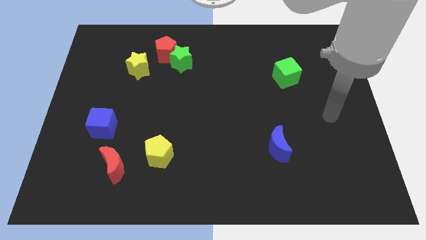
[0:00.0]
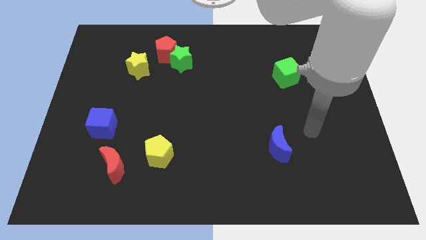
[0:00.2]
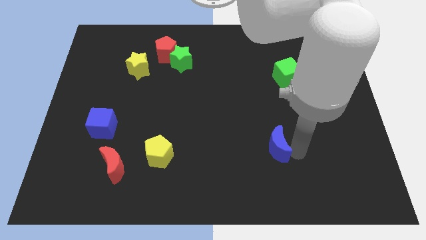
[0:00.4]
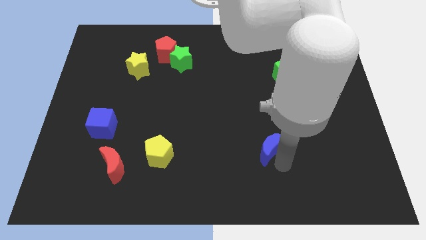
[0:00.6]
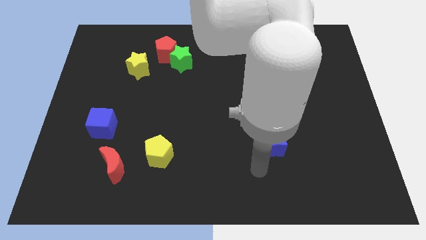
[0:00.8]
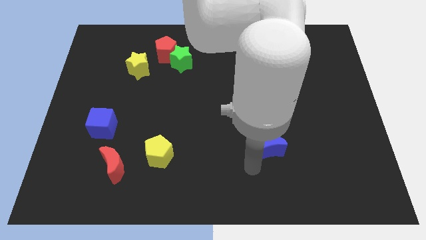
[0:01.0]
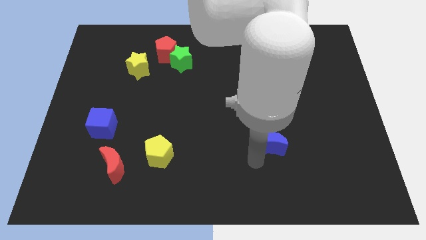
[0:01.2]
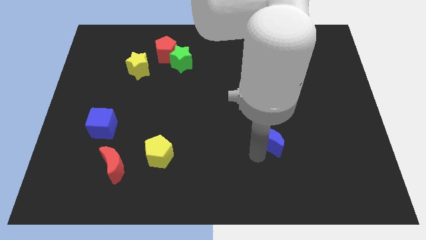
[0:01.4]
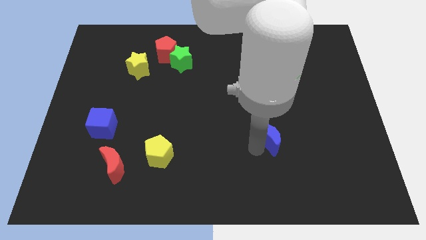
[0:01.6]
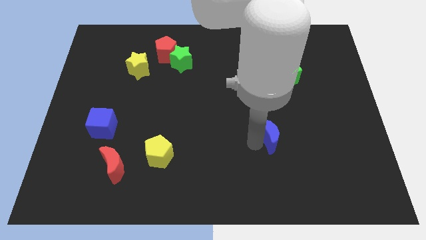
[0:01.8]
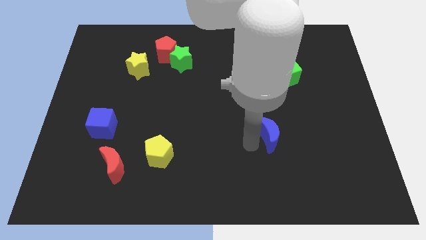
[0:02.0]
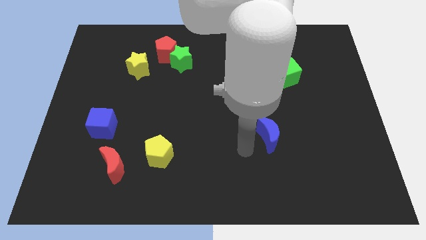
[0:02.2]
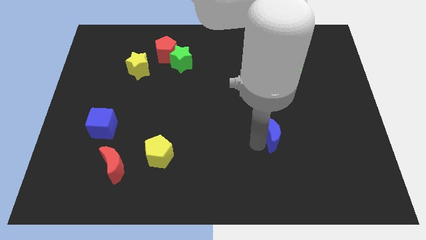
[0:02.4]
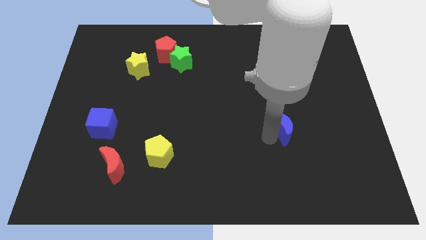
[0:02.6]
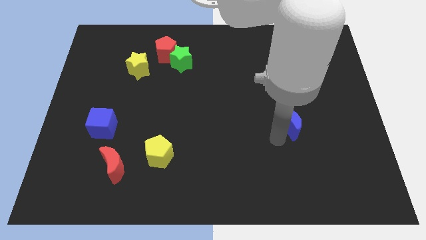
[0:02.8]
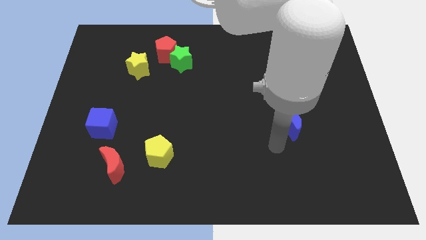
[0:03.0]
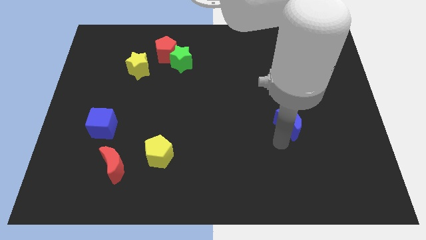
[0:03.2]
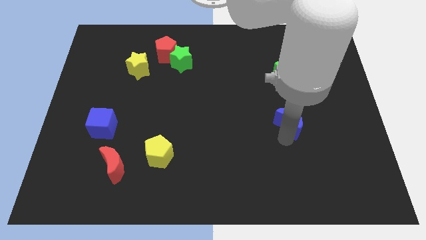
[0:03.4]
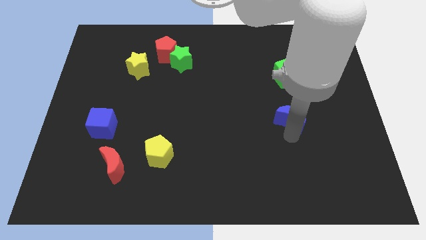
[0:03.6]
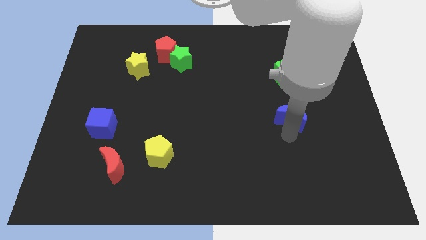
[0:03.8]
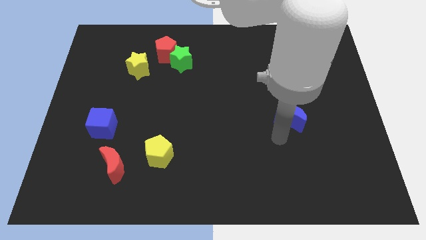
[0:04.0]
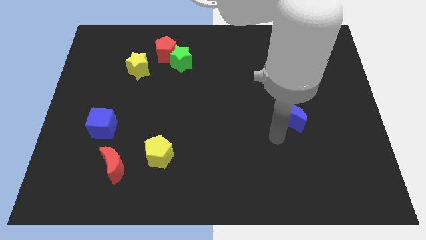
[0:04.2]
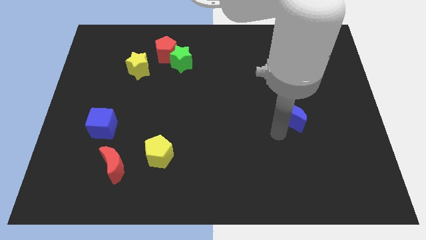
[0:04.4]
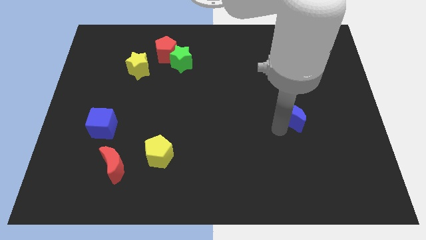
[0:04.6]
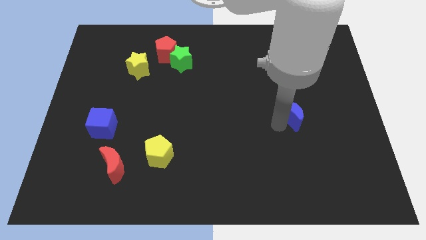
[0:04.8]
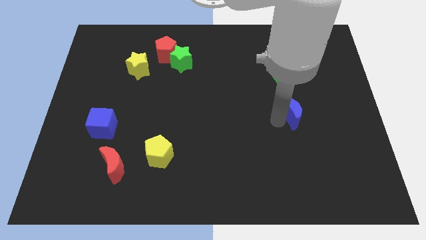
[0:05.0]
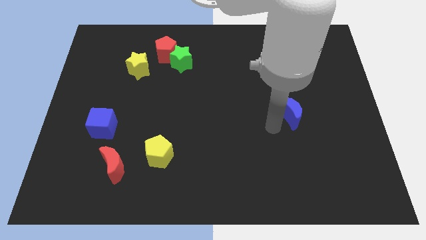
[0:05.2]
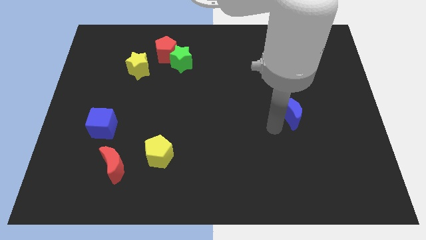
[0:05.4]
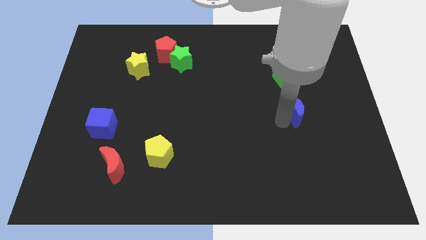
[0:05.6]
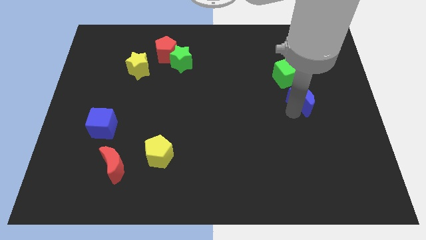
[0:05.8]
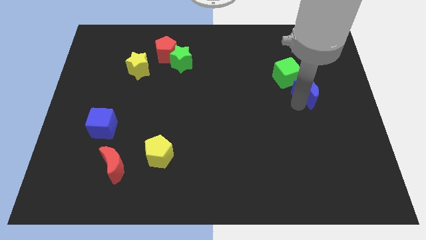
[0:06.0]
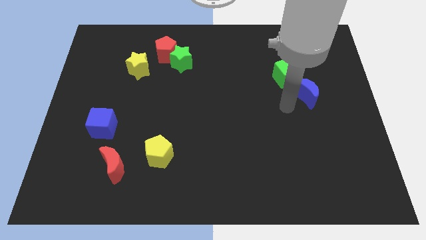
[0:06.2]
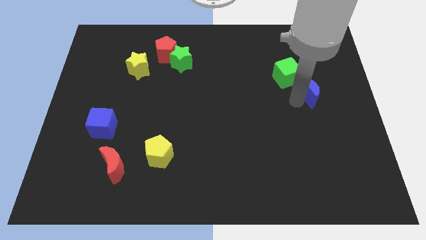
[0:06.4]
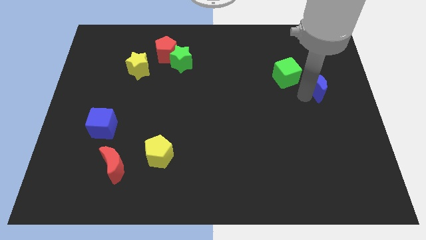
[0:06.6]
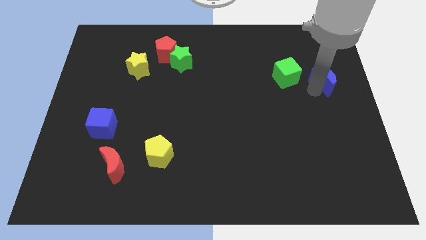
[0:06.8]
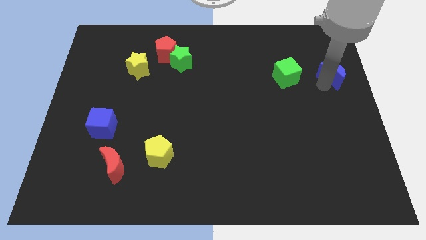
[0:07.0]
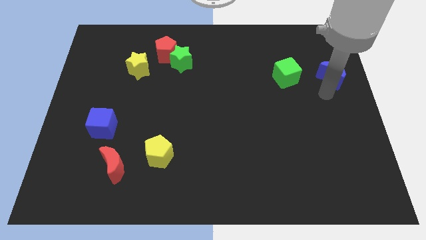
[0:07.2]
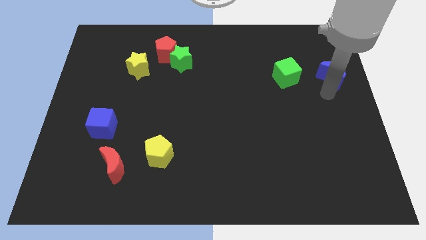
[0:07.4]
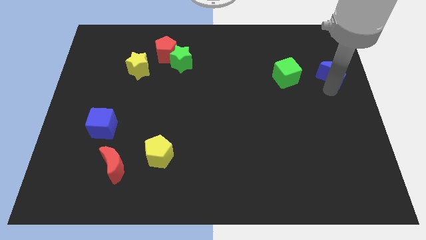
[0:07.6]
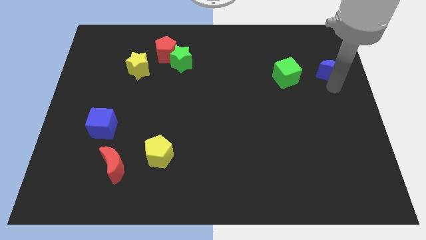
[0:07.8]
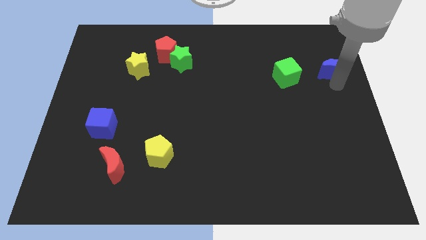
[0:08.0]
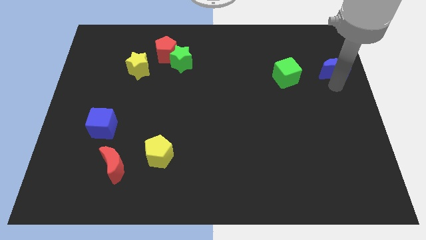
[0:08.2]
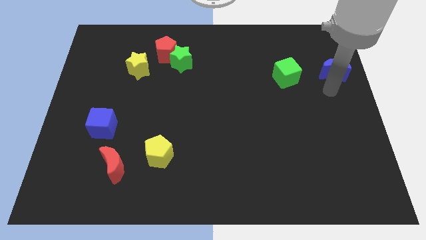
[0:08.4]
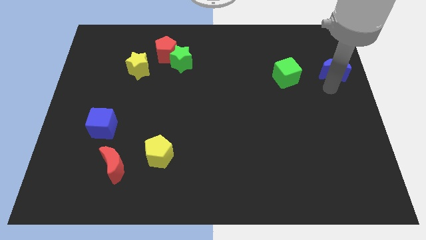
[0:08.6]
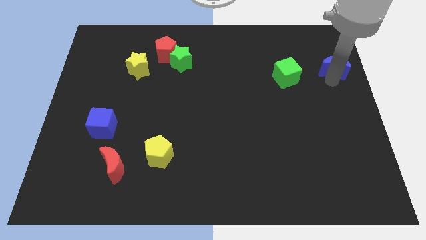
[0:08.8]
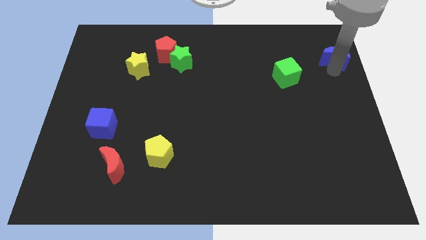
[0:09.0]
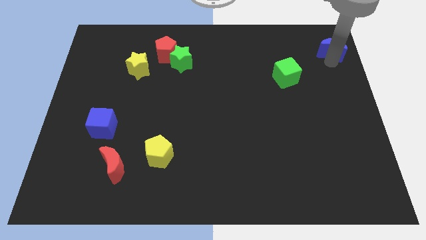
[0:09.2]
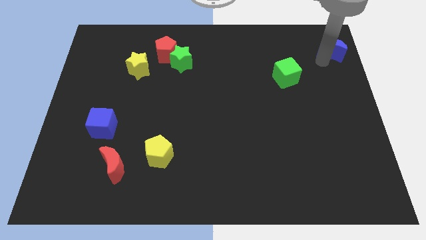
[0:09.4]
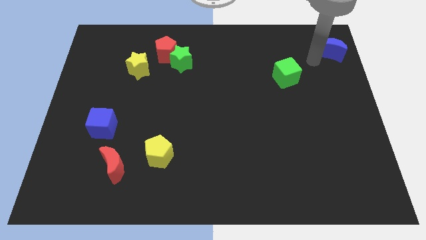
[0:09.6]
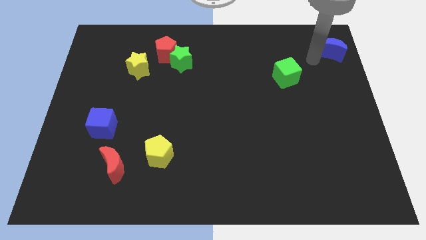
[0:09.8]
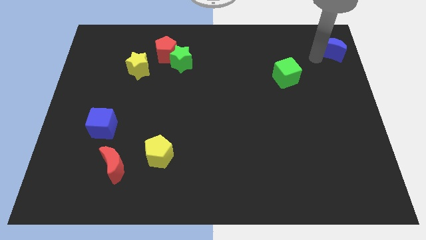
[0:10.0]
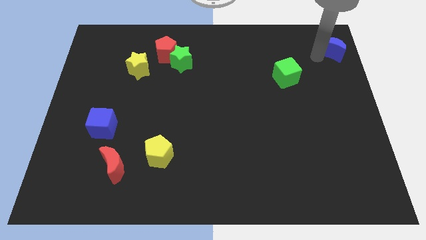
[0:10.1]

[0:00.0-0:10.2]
slide the blue moon to the top right corner

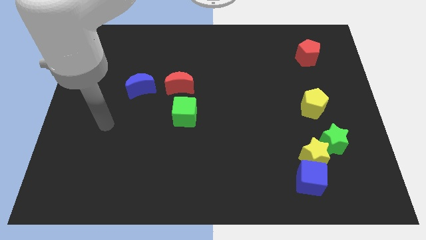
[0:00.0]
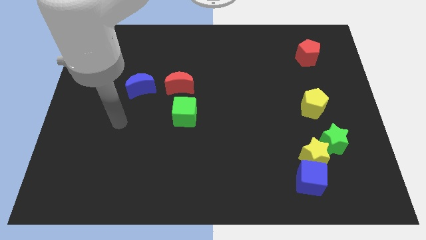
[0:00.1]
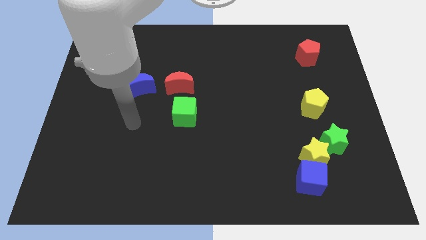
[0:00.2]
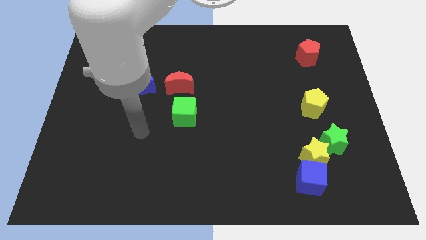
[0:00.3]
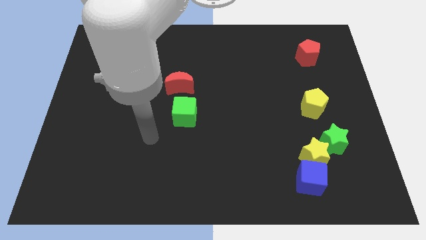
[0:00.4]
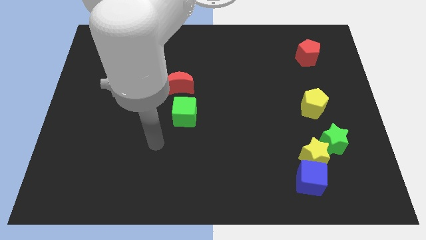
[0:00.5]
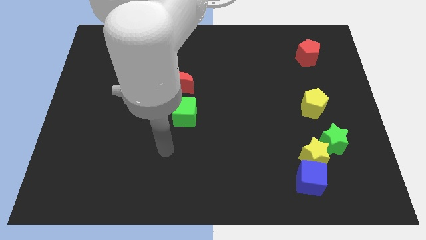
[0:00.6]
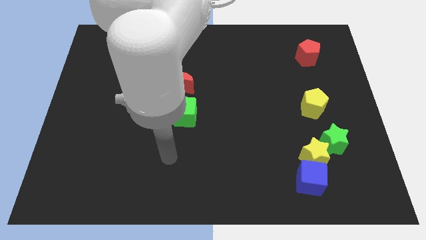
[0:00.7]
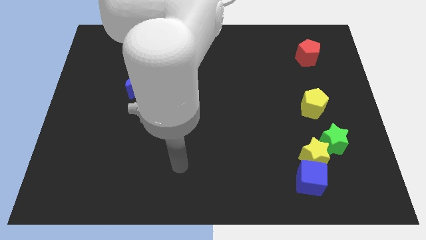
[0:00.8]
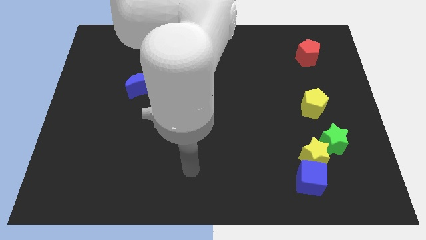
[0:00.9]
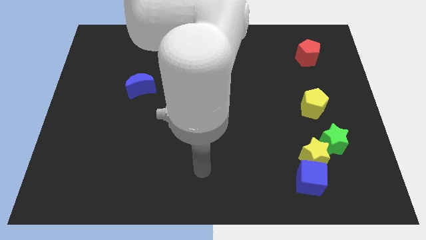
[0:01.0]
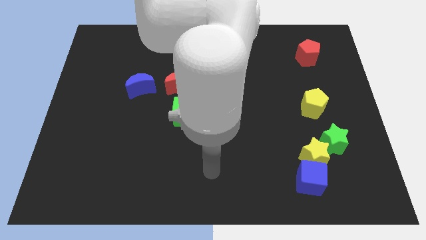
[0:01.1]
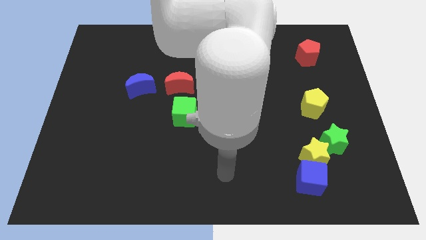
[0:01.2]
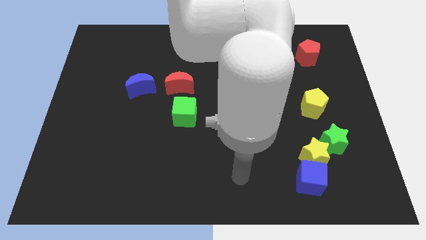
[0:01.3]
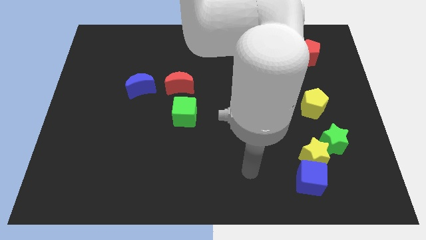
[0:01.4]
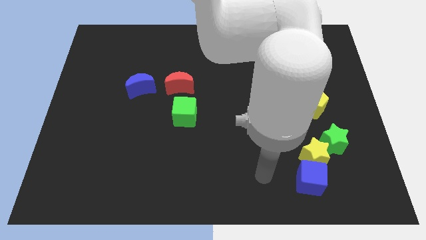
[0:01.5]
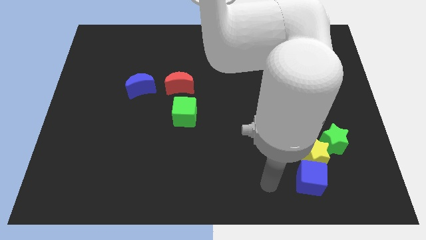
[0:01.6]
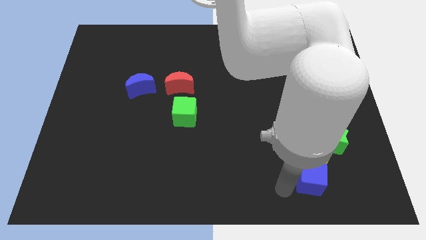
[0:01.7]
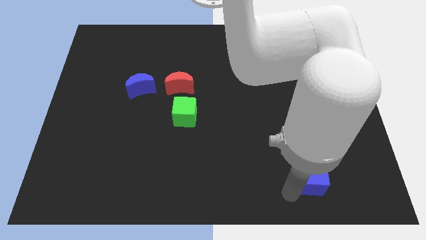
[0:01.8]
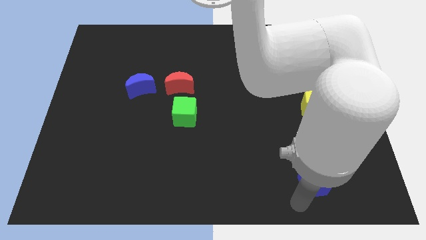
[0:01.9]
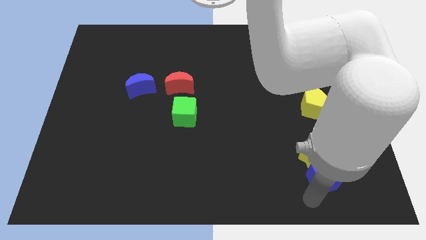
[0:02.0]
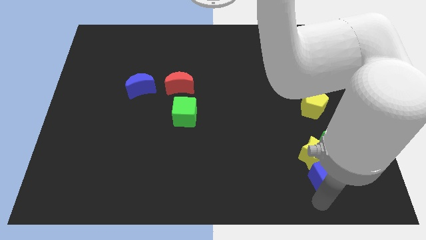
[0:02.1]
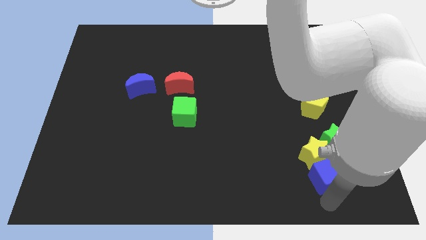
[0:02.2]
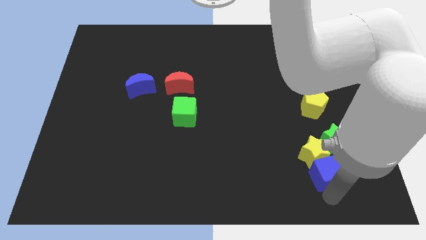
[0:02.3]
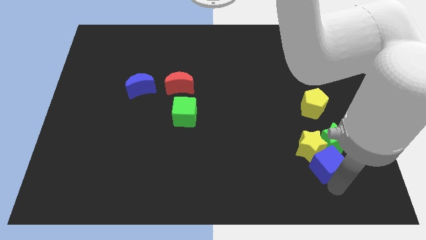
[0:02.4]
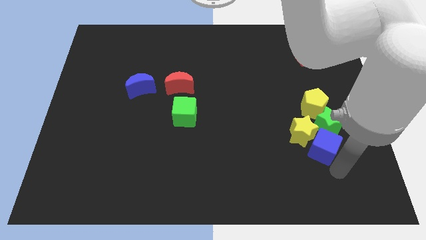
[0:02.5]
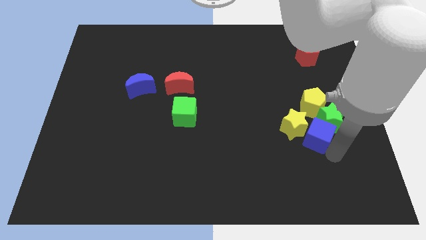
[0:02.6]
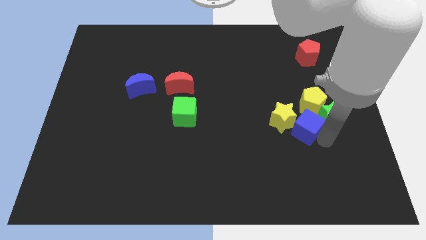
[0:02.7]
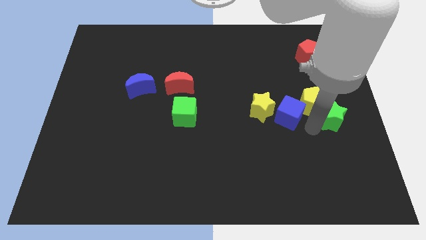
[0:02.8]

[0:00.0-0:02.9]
move the yellow star to the middle of the board
